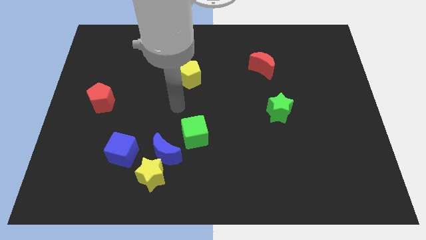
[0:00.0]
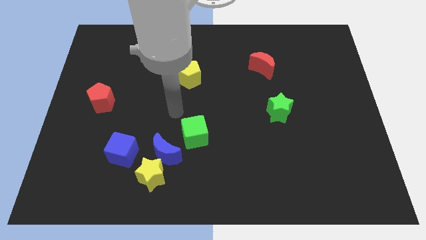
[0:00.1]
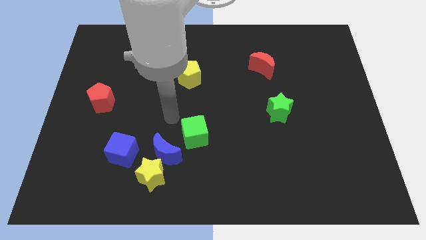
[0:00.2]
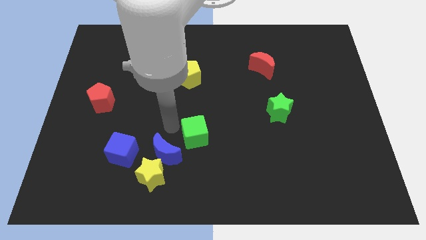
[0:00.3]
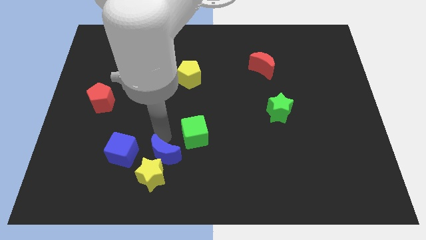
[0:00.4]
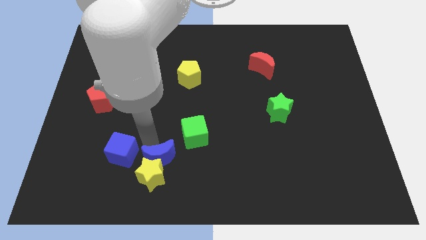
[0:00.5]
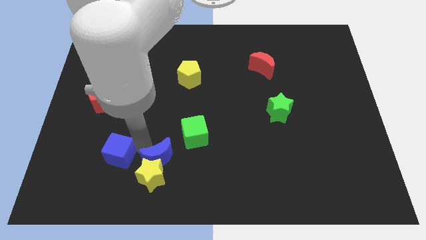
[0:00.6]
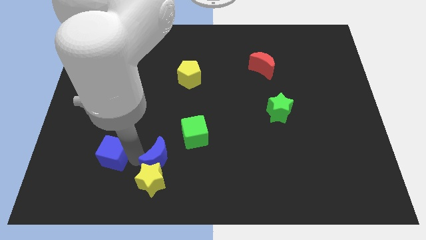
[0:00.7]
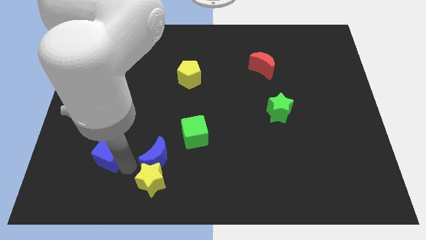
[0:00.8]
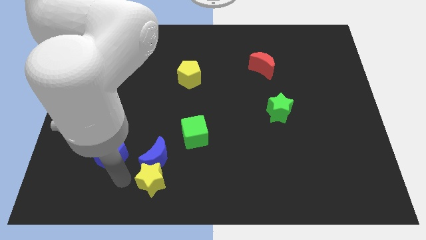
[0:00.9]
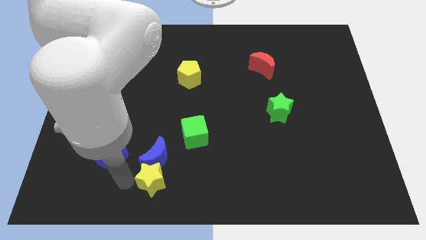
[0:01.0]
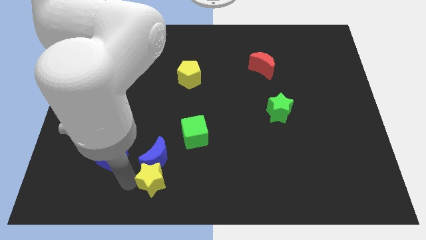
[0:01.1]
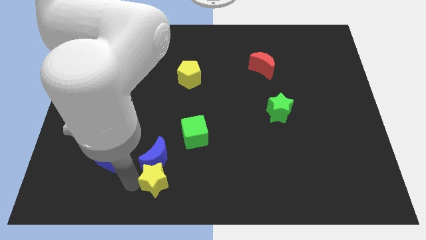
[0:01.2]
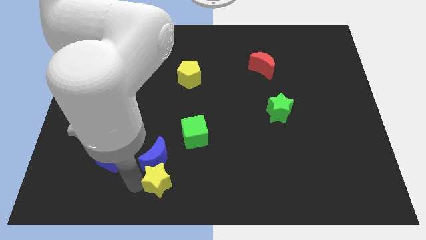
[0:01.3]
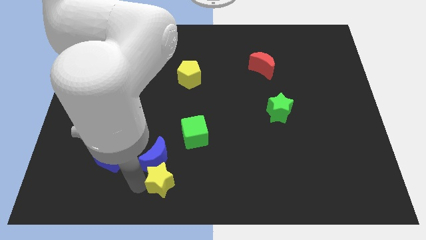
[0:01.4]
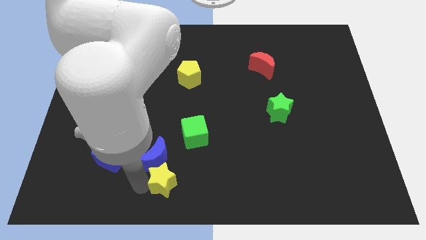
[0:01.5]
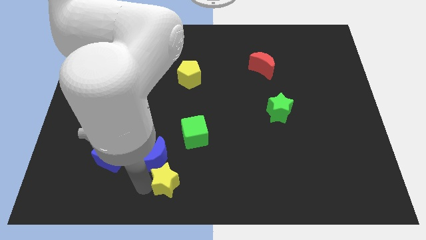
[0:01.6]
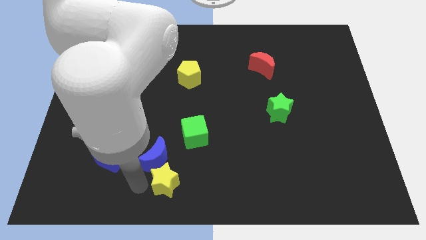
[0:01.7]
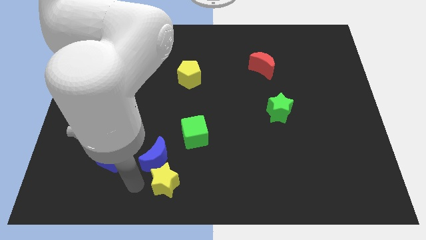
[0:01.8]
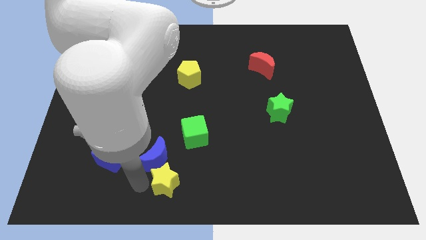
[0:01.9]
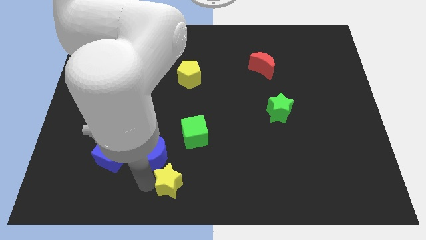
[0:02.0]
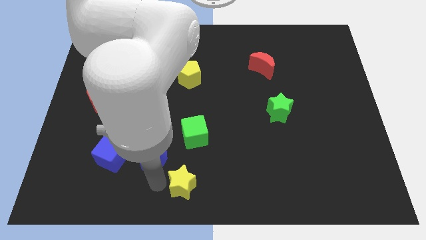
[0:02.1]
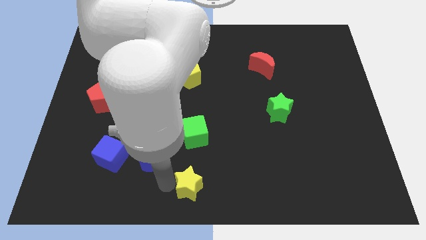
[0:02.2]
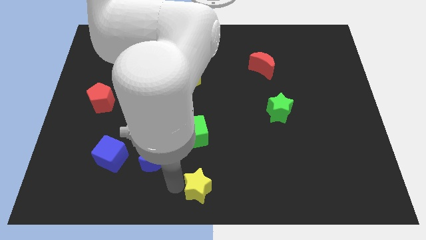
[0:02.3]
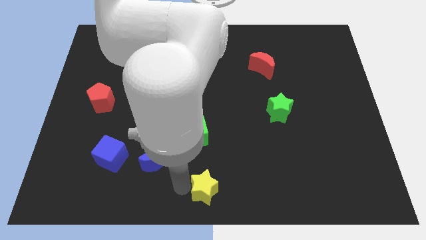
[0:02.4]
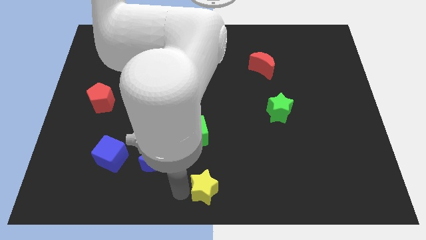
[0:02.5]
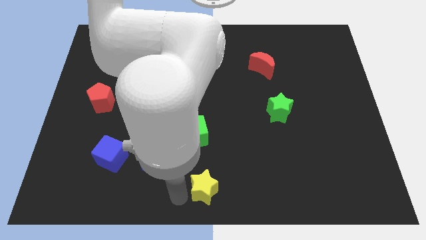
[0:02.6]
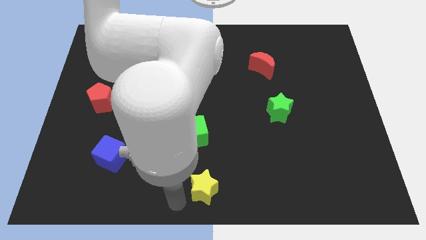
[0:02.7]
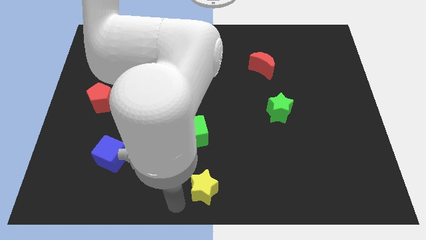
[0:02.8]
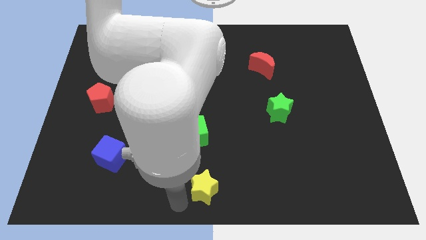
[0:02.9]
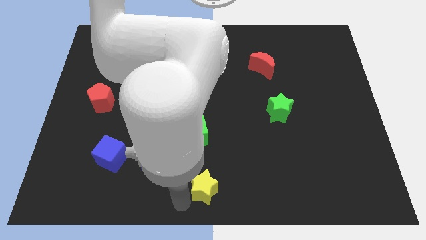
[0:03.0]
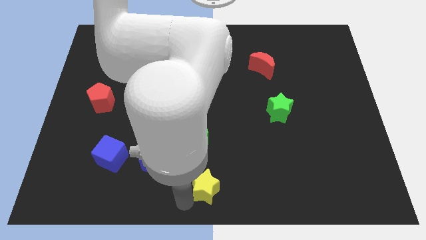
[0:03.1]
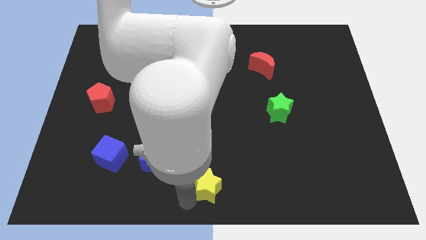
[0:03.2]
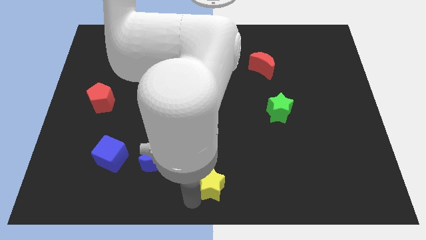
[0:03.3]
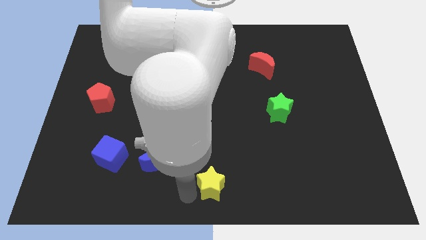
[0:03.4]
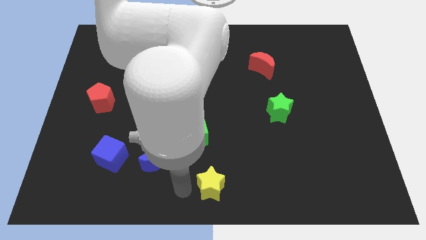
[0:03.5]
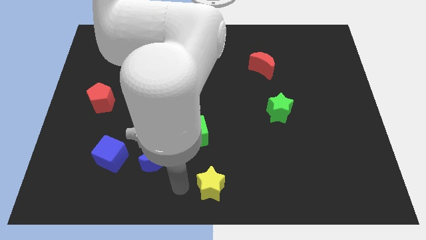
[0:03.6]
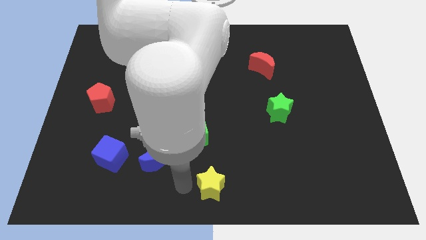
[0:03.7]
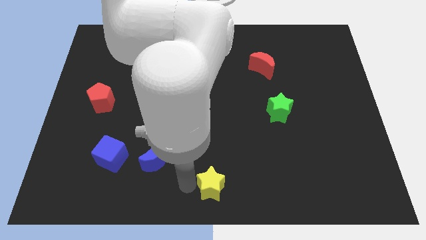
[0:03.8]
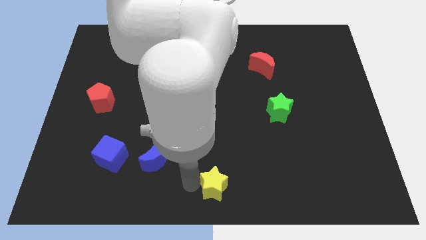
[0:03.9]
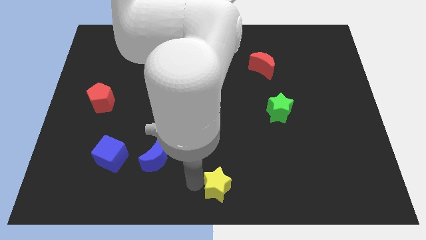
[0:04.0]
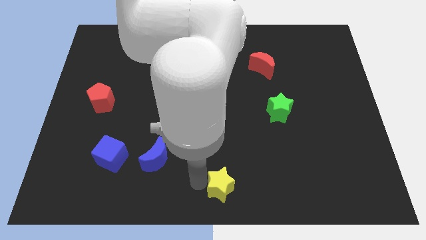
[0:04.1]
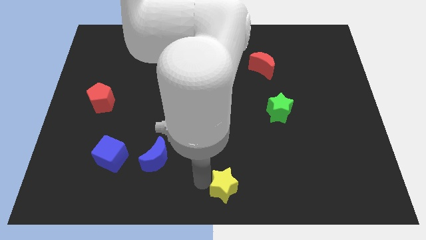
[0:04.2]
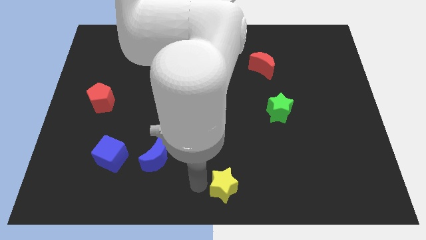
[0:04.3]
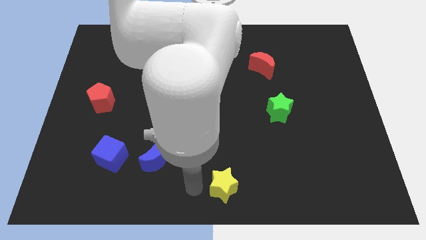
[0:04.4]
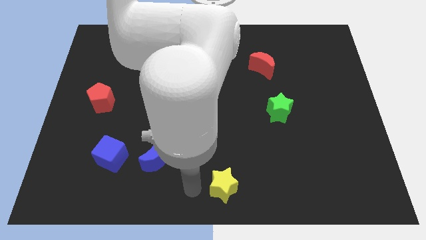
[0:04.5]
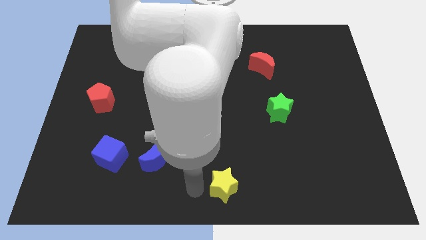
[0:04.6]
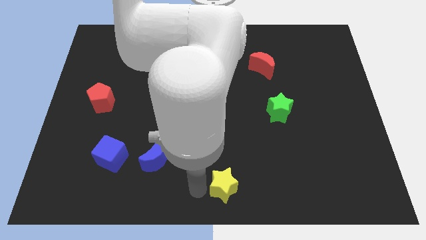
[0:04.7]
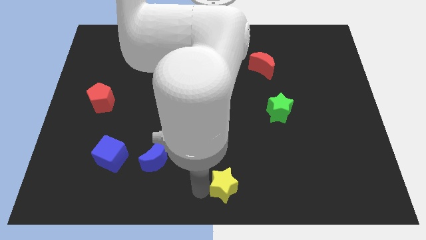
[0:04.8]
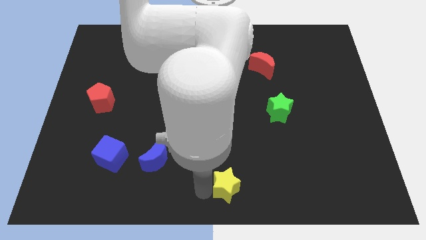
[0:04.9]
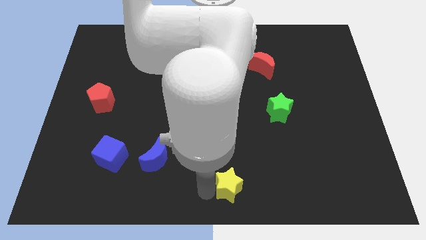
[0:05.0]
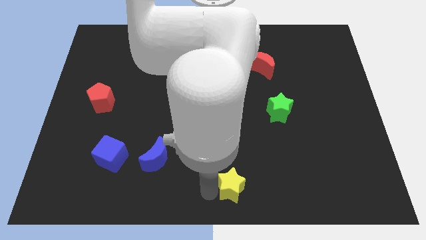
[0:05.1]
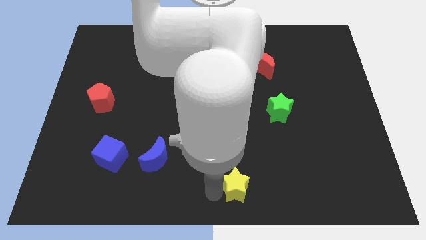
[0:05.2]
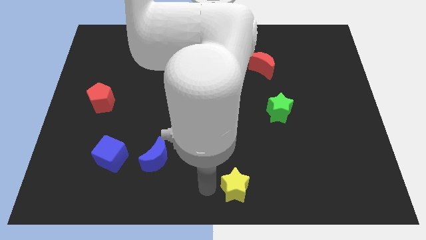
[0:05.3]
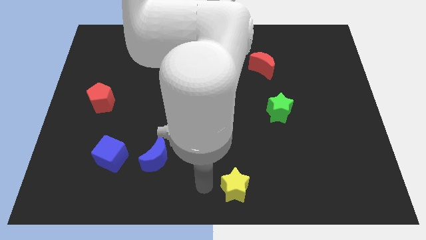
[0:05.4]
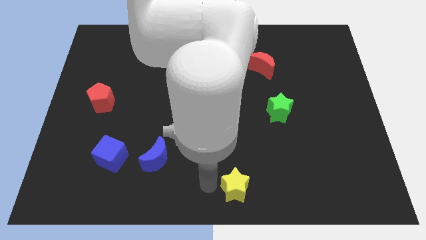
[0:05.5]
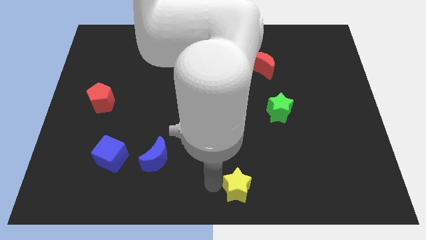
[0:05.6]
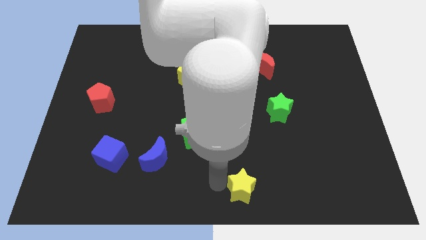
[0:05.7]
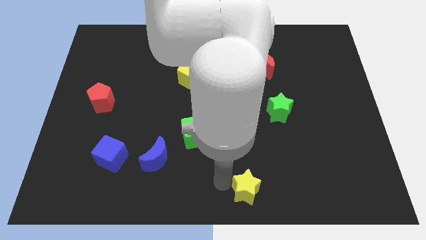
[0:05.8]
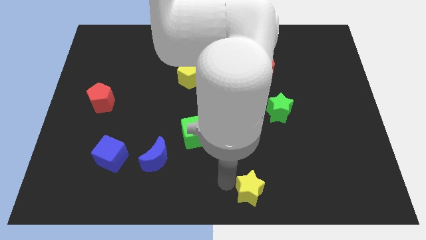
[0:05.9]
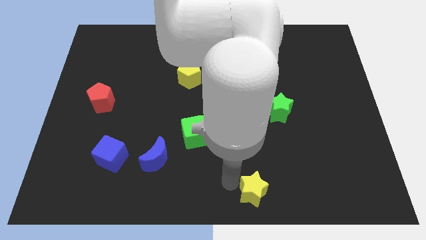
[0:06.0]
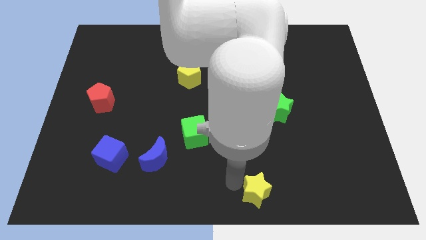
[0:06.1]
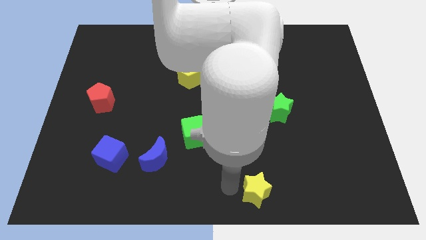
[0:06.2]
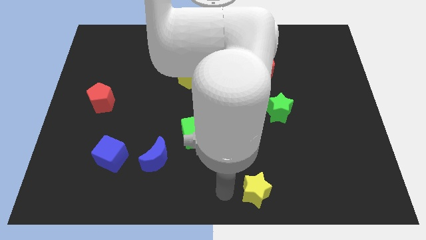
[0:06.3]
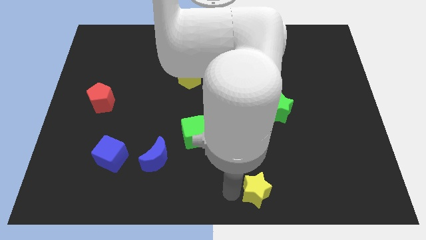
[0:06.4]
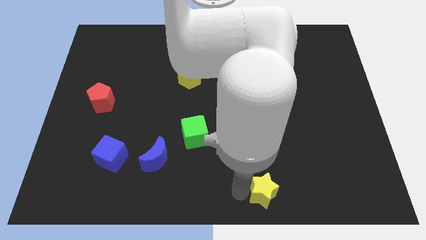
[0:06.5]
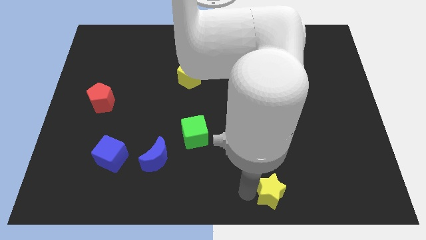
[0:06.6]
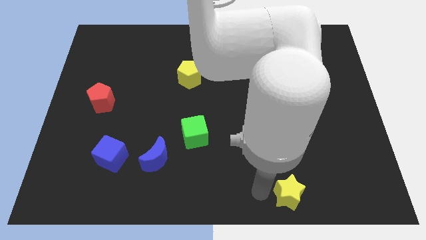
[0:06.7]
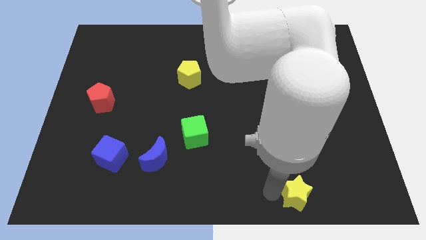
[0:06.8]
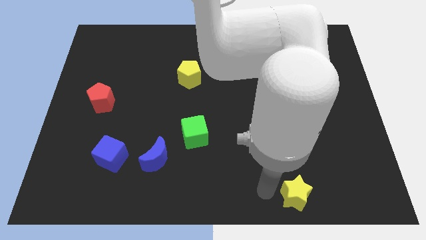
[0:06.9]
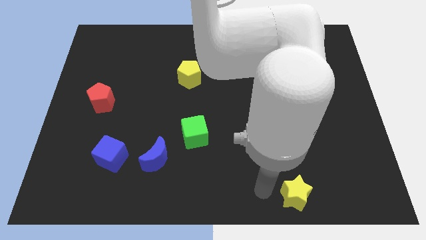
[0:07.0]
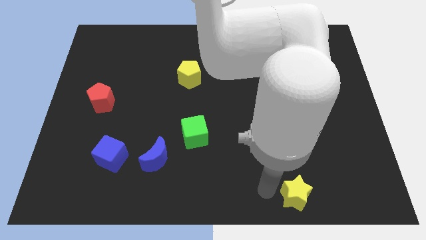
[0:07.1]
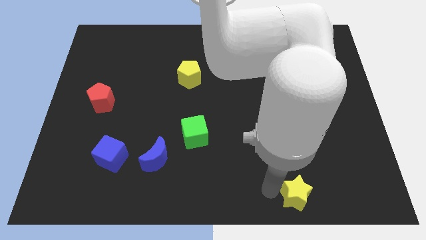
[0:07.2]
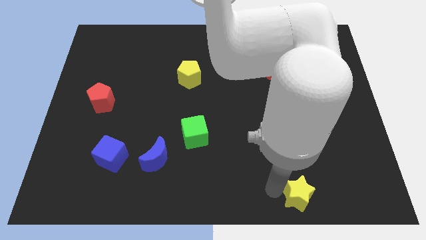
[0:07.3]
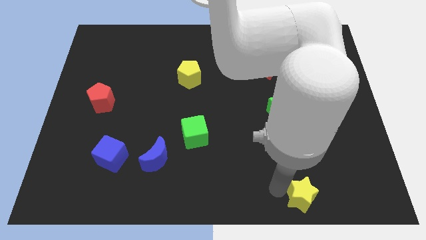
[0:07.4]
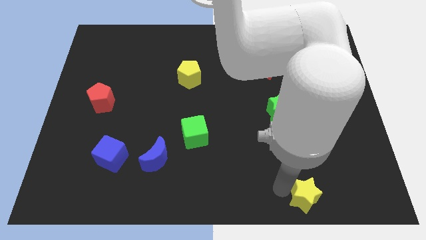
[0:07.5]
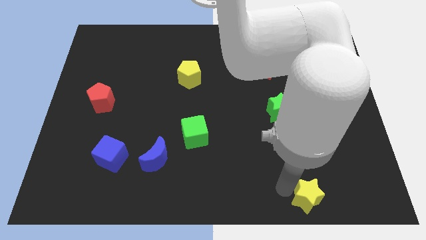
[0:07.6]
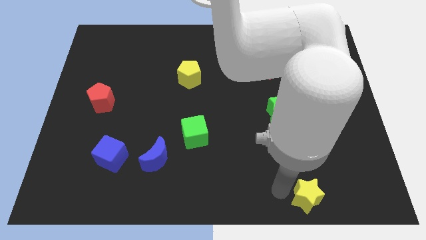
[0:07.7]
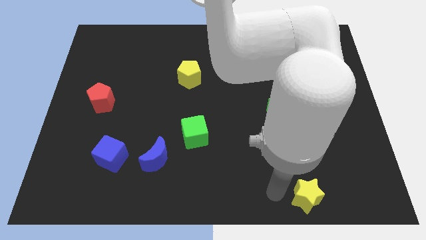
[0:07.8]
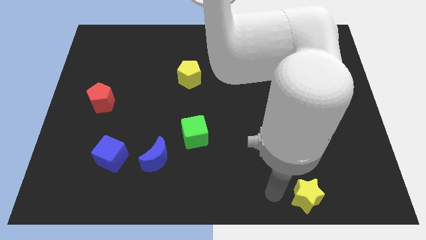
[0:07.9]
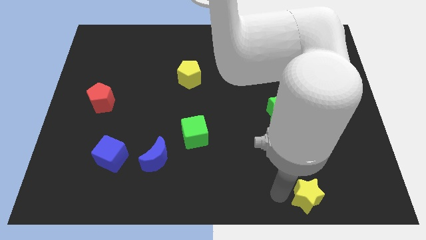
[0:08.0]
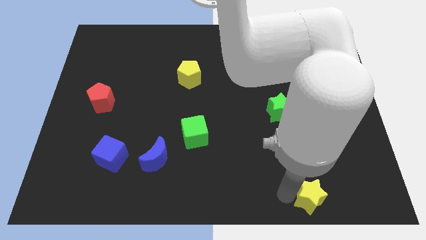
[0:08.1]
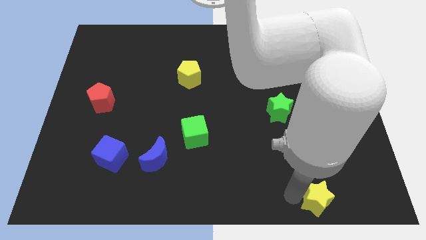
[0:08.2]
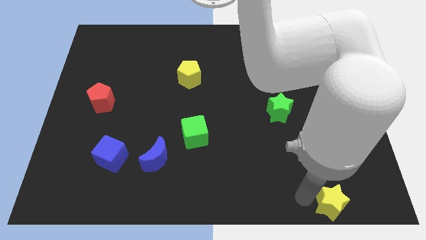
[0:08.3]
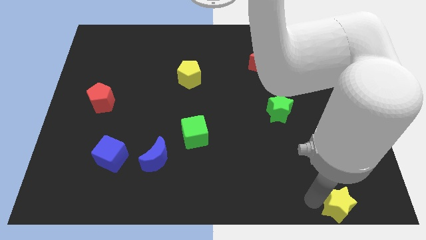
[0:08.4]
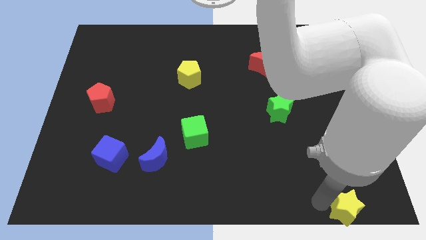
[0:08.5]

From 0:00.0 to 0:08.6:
slide the yellow star to the lower right corner
